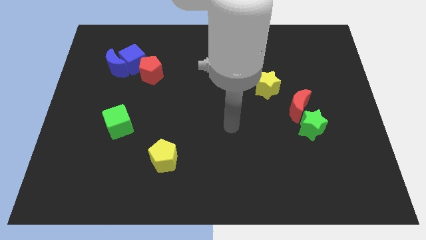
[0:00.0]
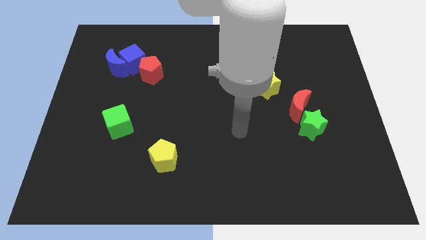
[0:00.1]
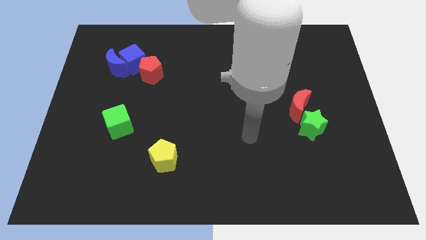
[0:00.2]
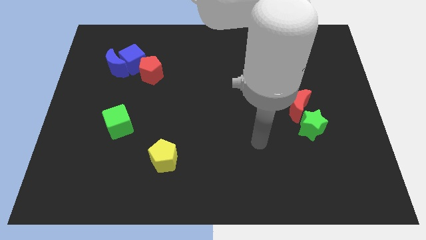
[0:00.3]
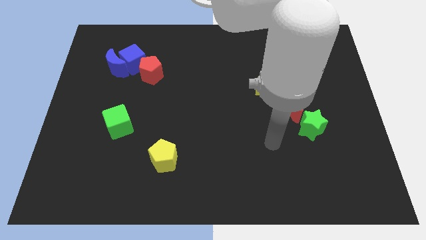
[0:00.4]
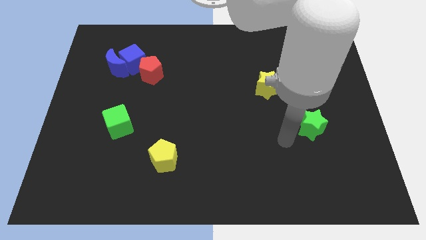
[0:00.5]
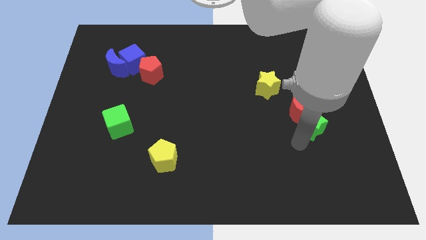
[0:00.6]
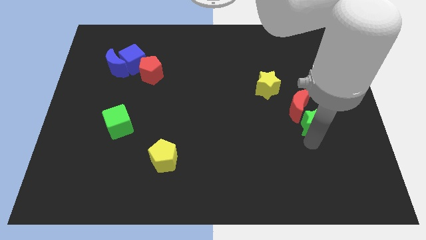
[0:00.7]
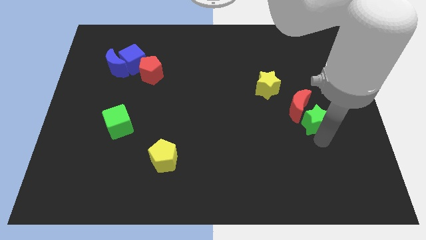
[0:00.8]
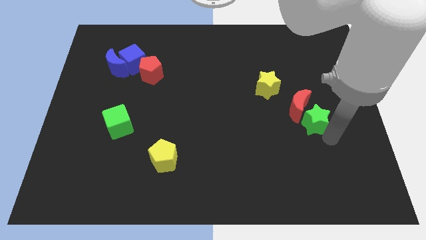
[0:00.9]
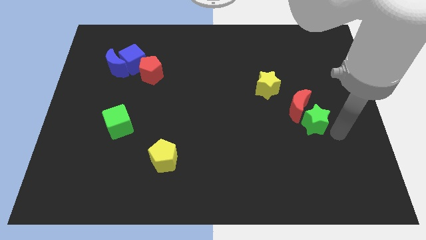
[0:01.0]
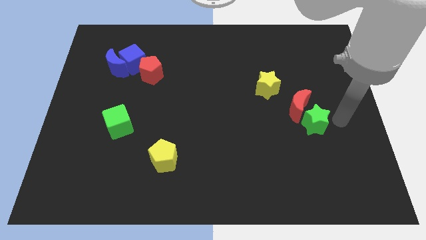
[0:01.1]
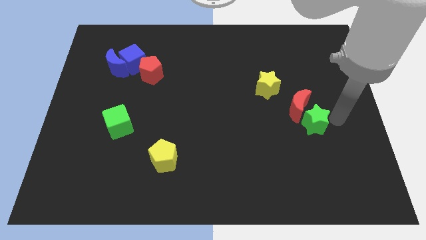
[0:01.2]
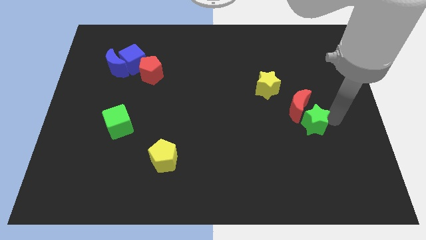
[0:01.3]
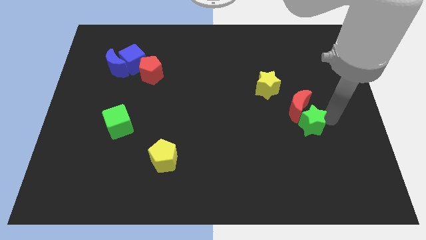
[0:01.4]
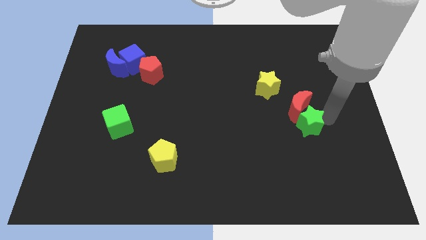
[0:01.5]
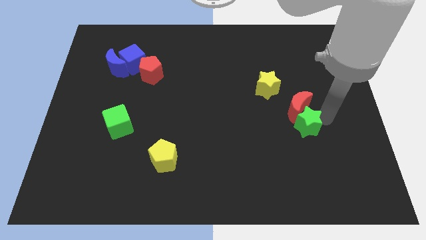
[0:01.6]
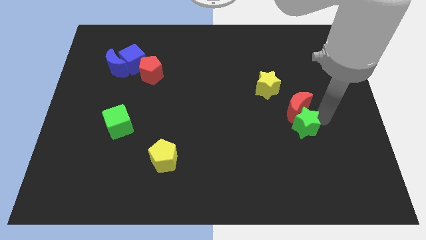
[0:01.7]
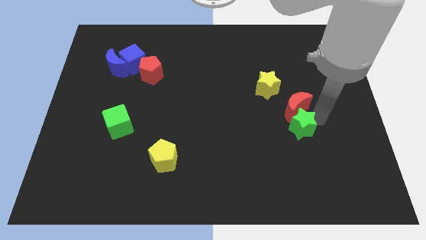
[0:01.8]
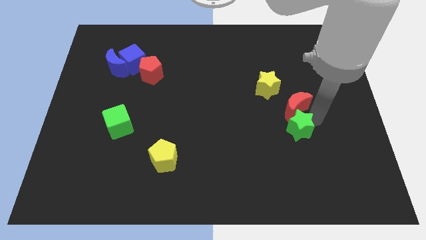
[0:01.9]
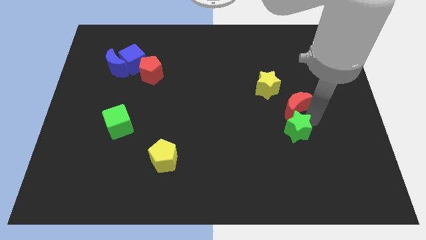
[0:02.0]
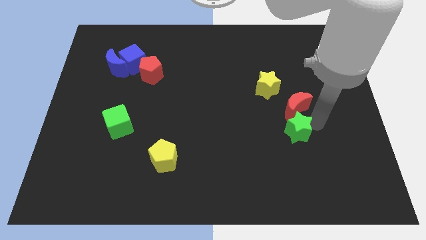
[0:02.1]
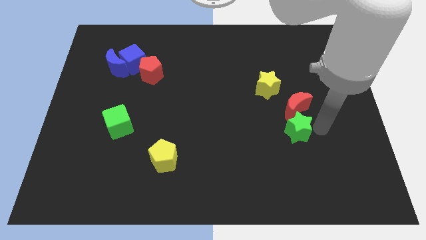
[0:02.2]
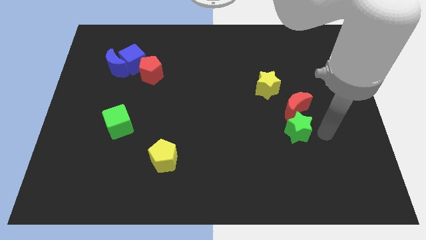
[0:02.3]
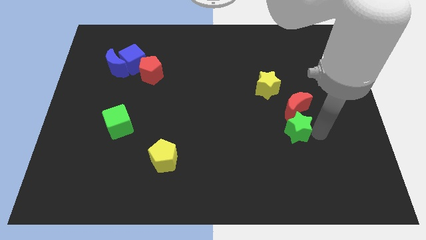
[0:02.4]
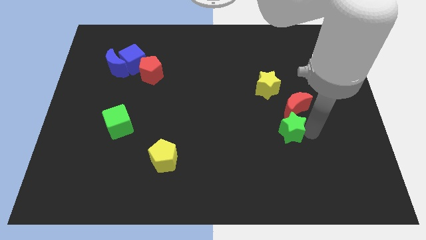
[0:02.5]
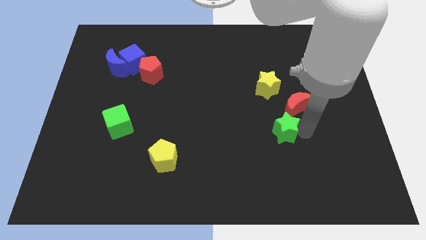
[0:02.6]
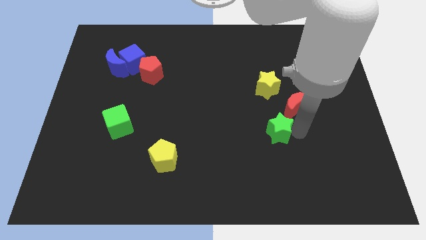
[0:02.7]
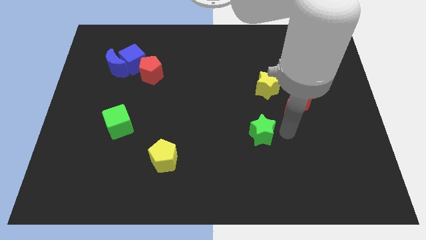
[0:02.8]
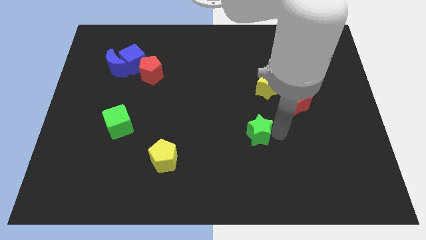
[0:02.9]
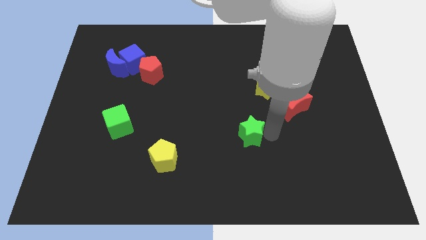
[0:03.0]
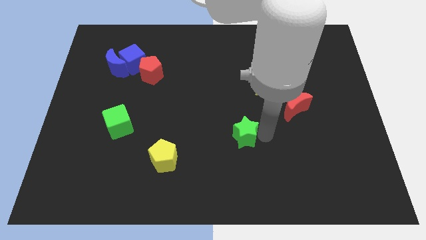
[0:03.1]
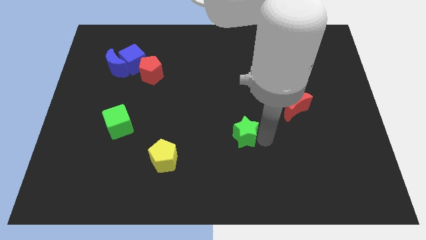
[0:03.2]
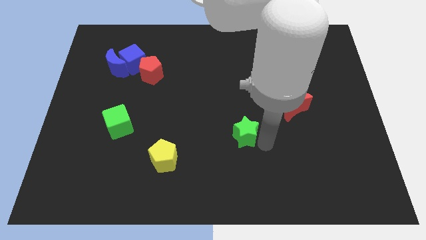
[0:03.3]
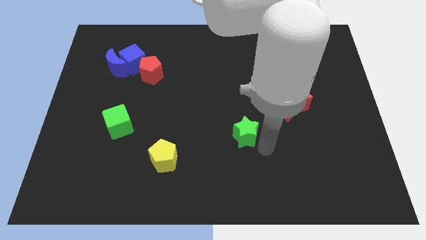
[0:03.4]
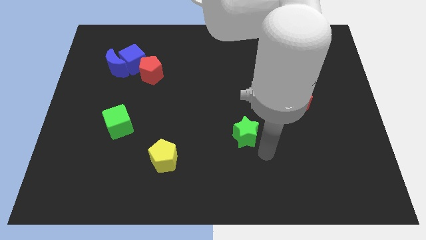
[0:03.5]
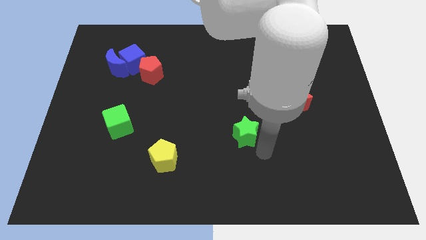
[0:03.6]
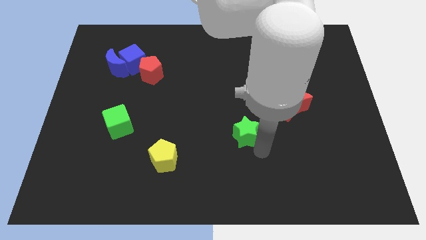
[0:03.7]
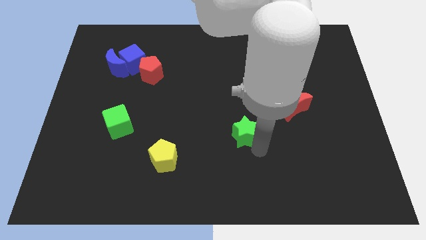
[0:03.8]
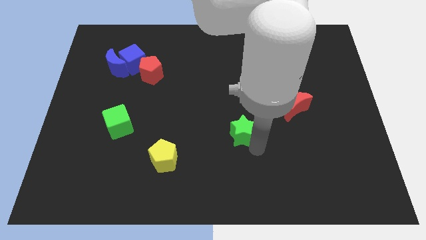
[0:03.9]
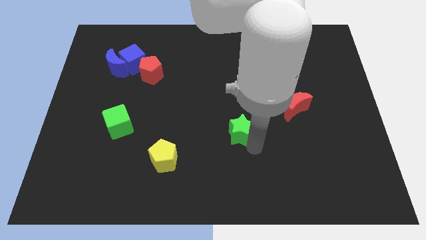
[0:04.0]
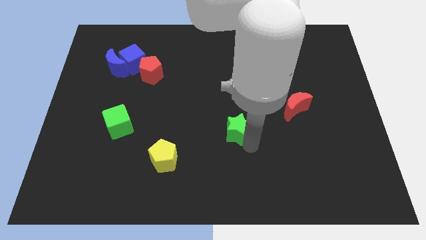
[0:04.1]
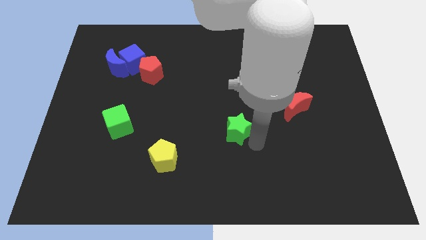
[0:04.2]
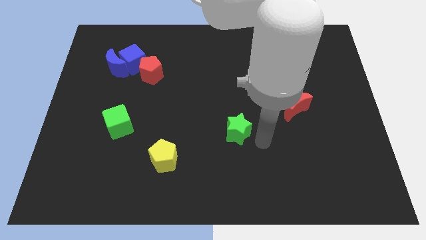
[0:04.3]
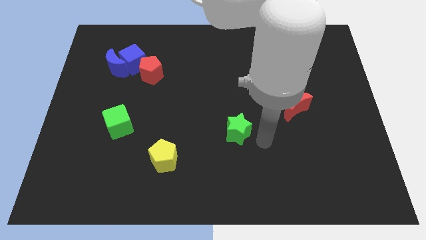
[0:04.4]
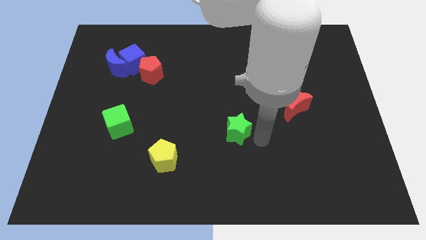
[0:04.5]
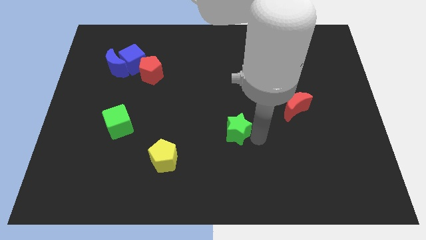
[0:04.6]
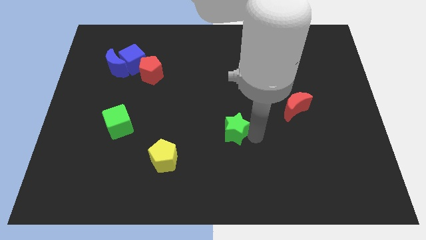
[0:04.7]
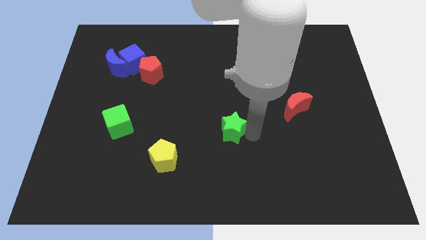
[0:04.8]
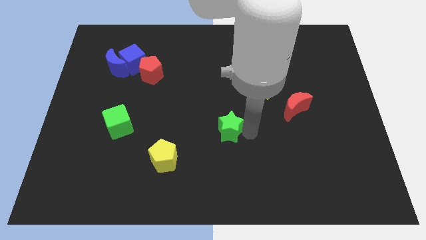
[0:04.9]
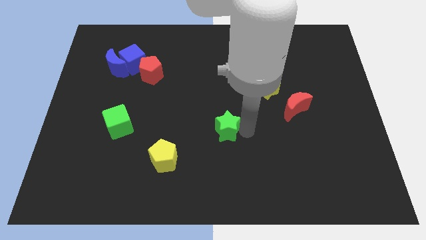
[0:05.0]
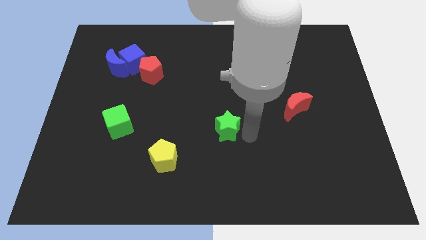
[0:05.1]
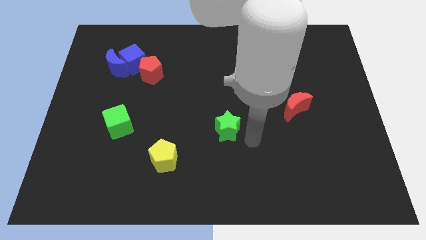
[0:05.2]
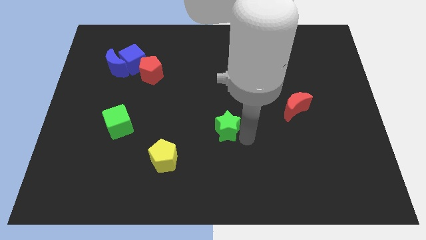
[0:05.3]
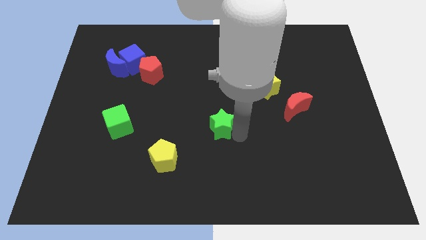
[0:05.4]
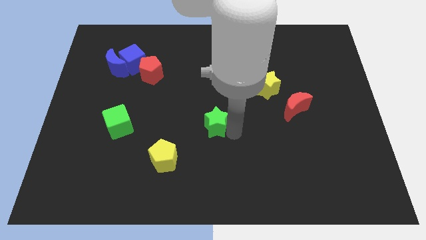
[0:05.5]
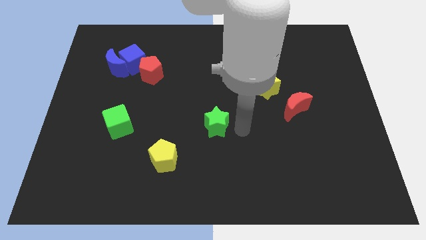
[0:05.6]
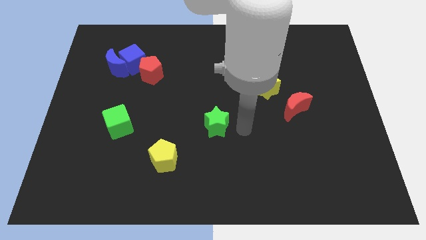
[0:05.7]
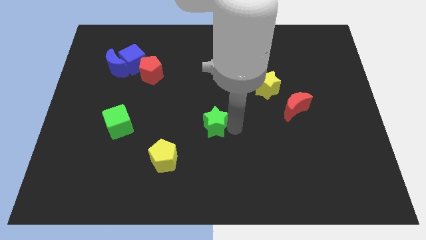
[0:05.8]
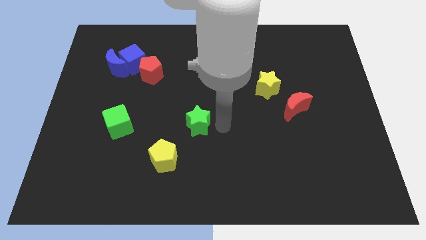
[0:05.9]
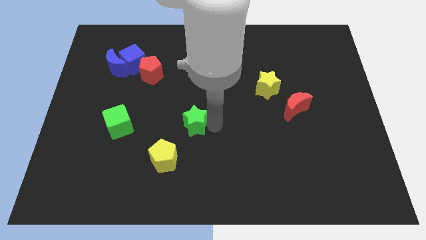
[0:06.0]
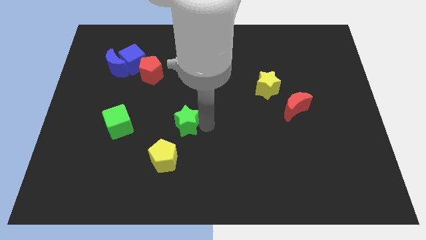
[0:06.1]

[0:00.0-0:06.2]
push the green star to the top side of the yellow pentagon
